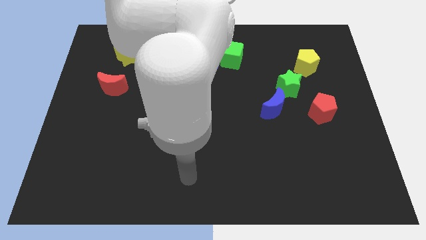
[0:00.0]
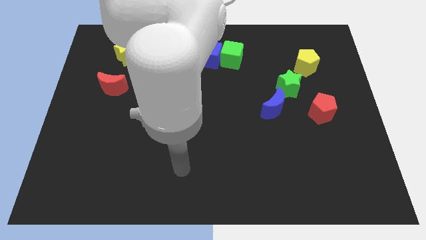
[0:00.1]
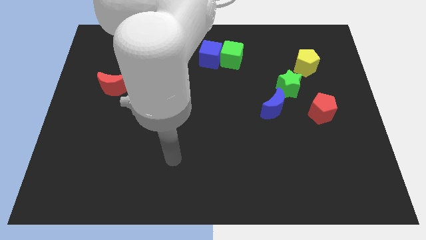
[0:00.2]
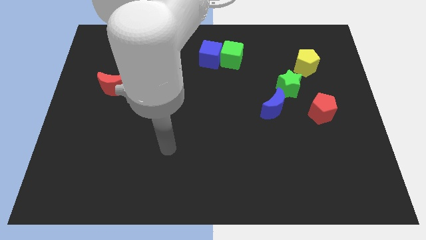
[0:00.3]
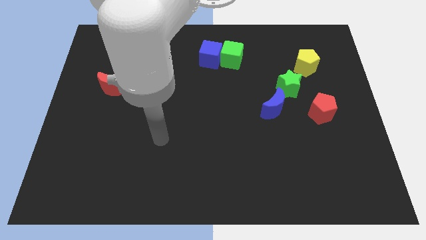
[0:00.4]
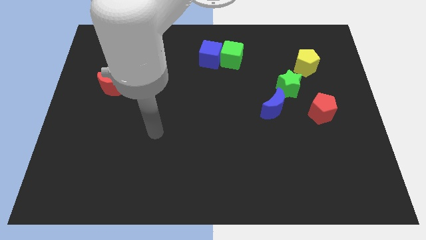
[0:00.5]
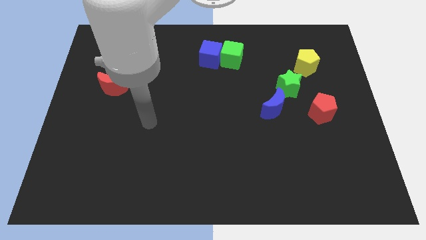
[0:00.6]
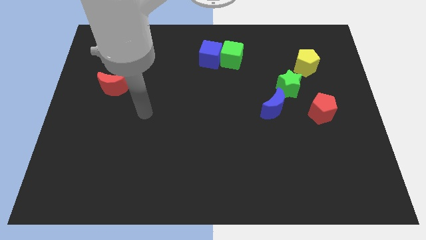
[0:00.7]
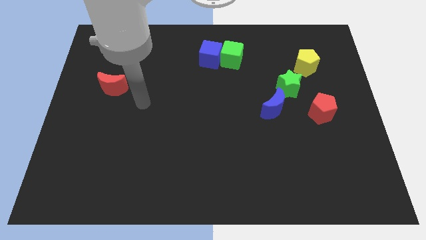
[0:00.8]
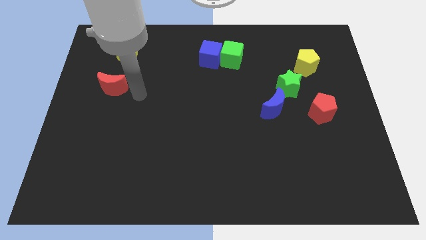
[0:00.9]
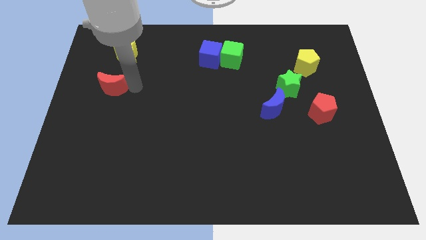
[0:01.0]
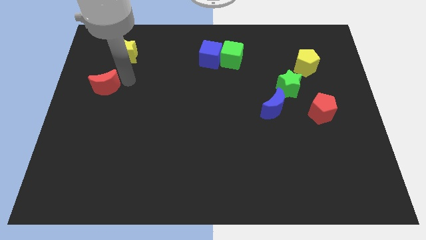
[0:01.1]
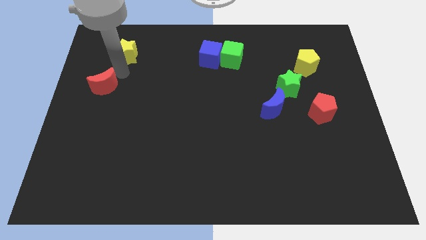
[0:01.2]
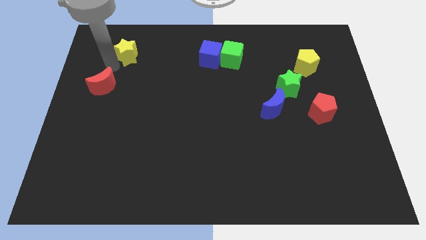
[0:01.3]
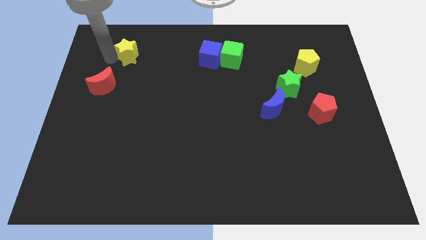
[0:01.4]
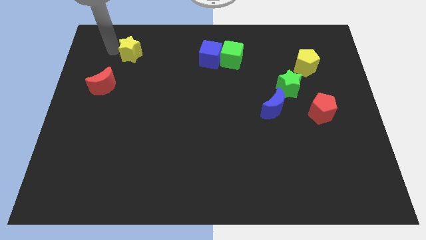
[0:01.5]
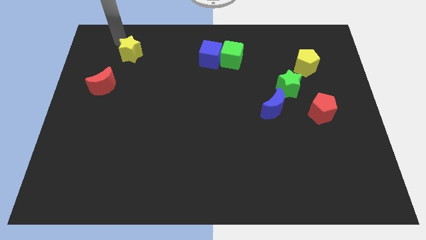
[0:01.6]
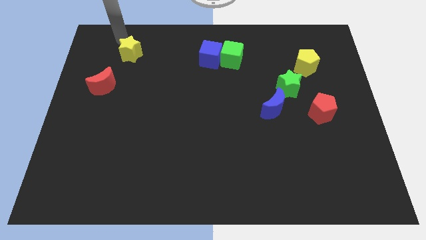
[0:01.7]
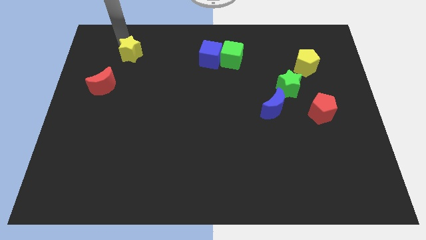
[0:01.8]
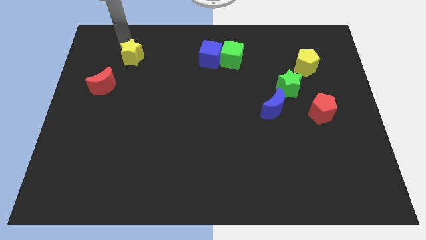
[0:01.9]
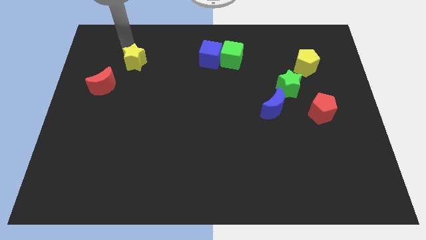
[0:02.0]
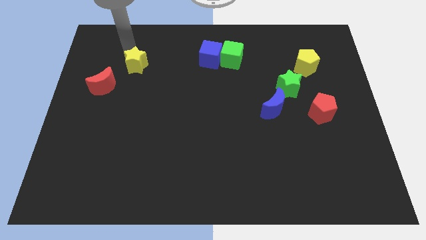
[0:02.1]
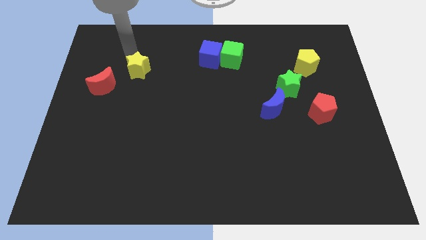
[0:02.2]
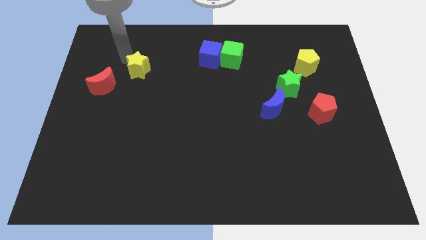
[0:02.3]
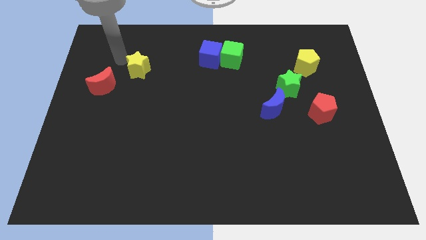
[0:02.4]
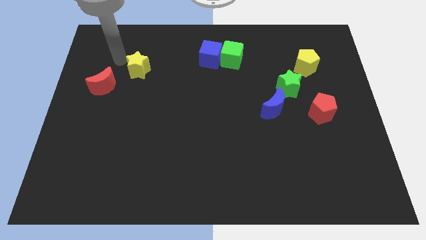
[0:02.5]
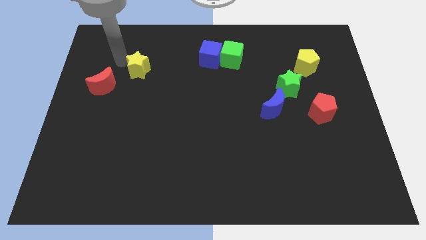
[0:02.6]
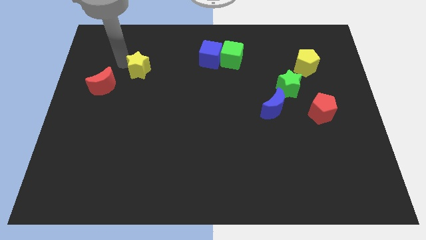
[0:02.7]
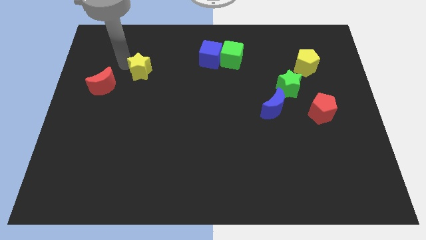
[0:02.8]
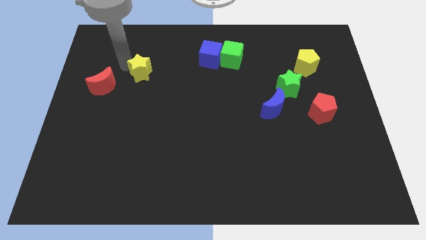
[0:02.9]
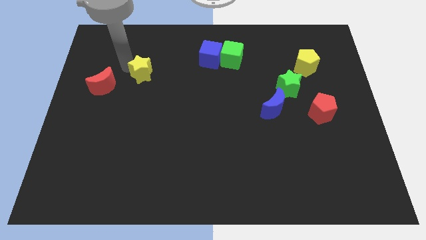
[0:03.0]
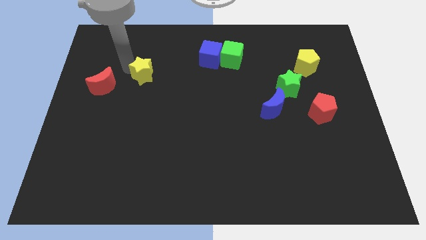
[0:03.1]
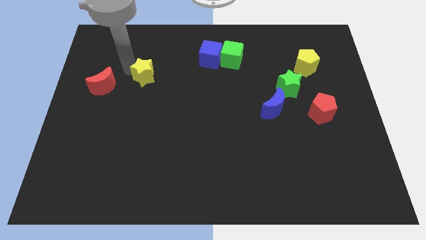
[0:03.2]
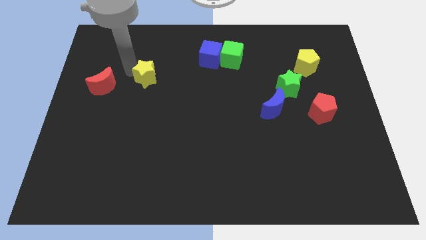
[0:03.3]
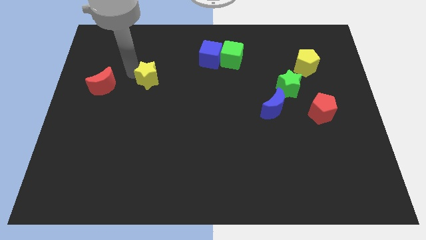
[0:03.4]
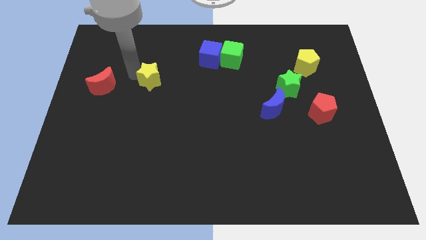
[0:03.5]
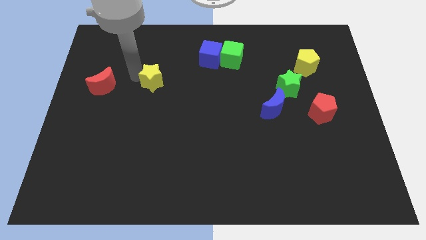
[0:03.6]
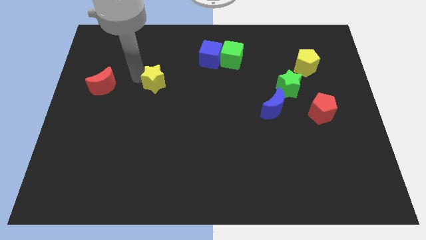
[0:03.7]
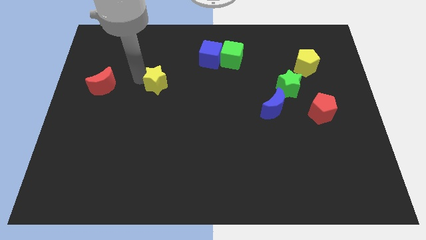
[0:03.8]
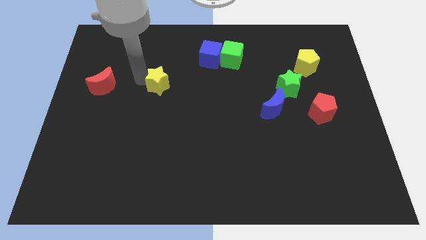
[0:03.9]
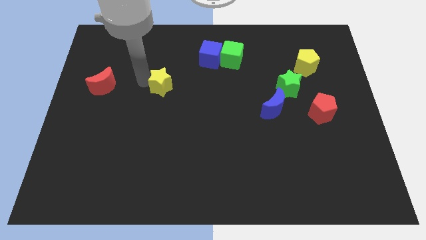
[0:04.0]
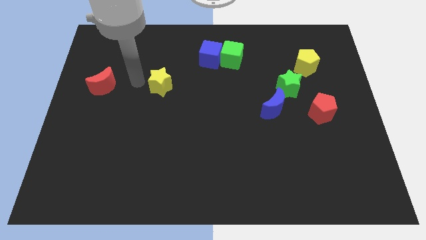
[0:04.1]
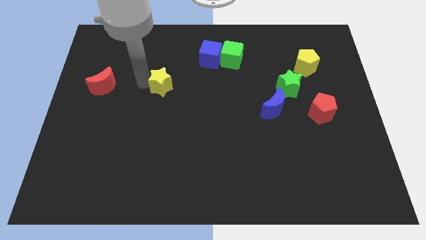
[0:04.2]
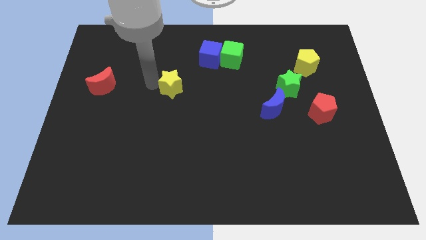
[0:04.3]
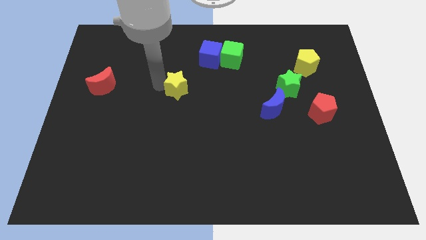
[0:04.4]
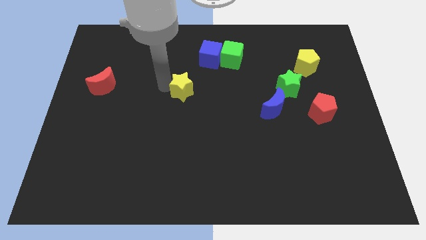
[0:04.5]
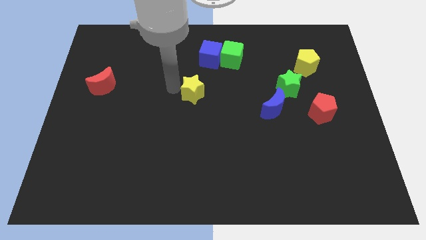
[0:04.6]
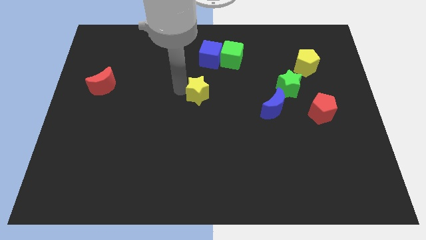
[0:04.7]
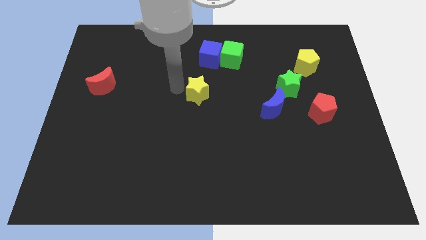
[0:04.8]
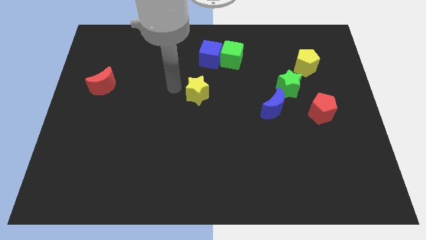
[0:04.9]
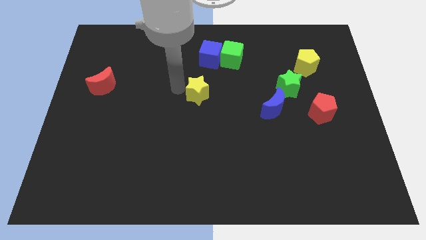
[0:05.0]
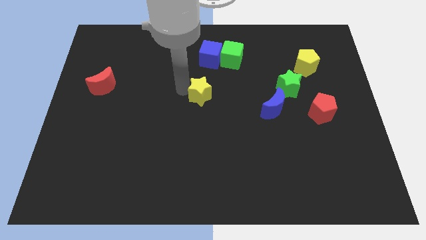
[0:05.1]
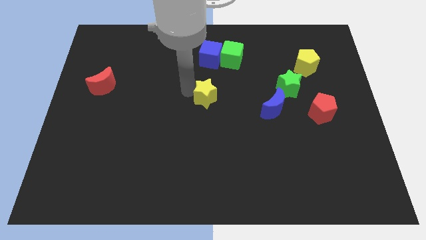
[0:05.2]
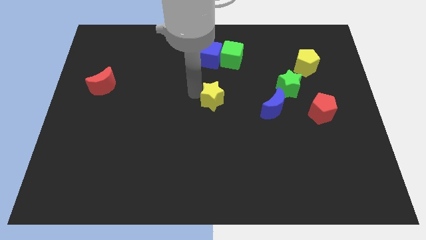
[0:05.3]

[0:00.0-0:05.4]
push the yellow star left of the blue moon

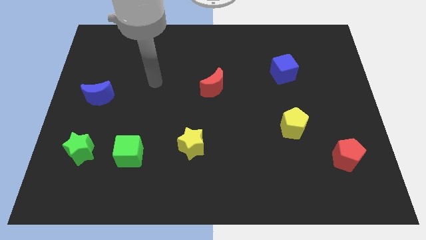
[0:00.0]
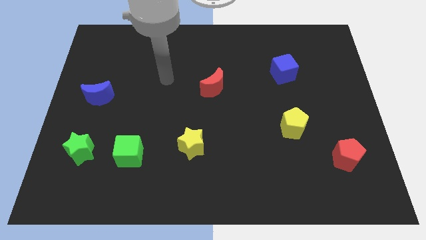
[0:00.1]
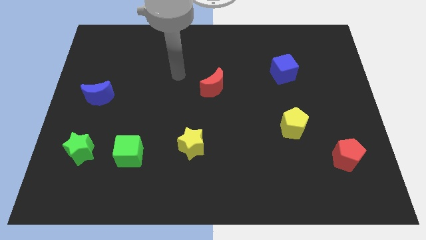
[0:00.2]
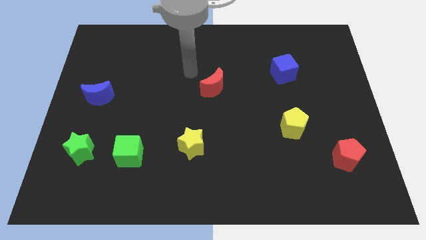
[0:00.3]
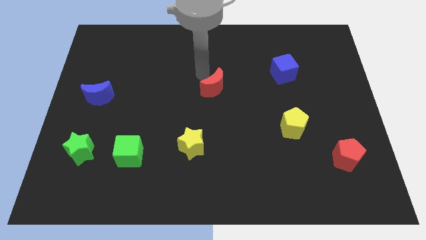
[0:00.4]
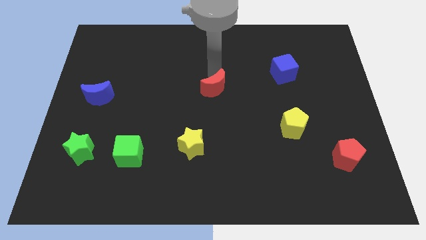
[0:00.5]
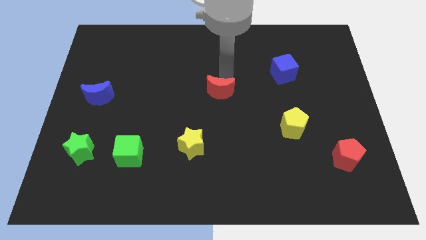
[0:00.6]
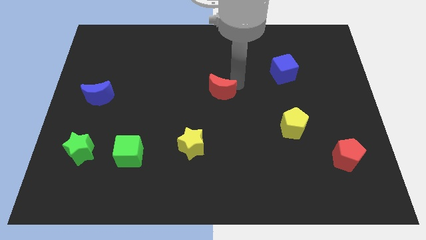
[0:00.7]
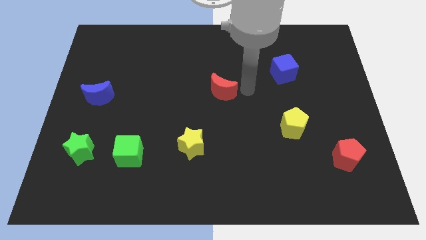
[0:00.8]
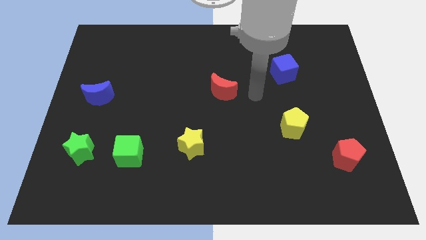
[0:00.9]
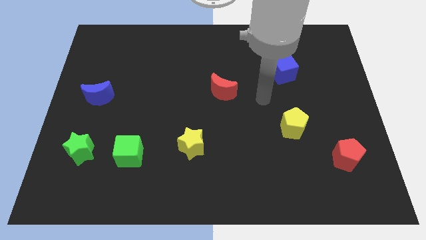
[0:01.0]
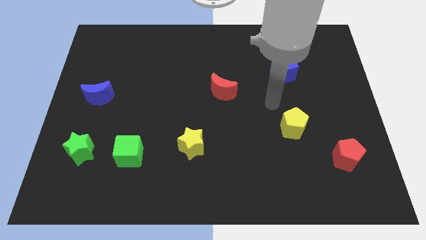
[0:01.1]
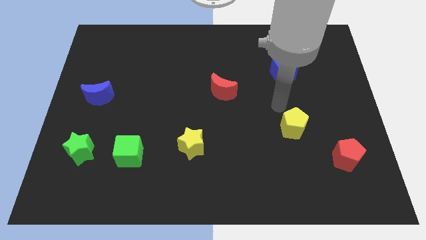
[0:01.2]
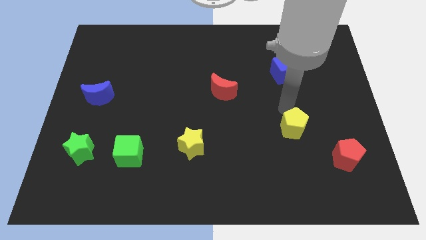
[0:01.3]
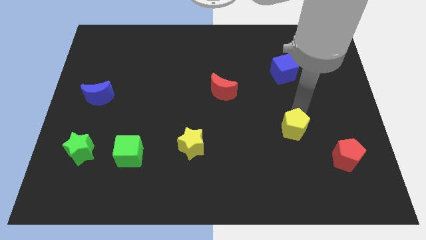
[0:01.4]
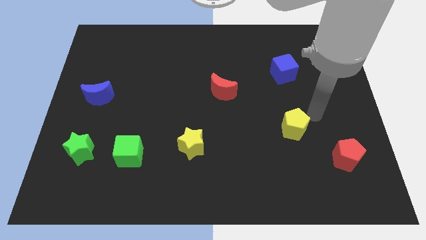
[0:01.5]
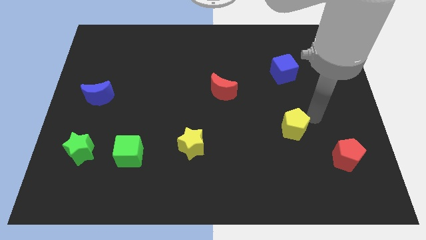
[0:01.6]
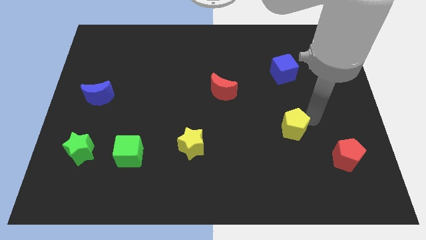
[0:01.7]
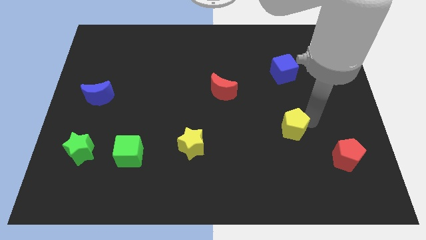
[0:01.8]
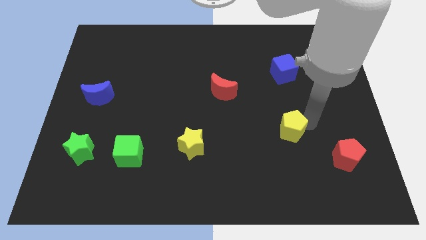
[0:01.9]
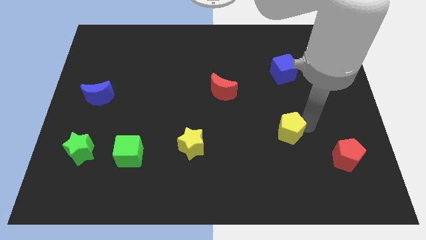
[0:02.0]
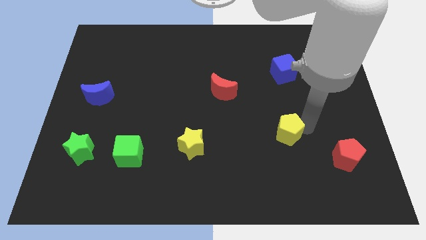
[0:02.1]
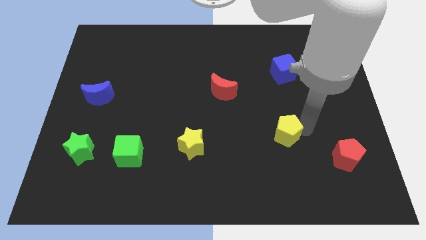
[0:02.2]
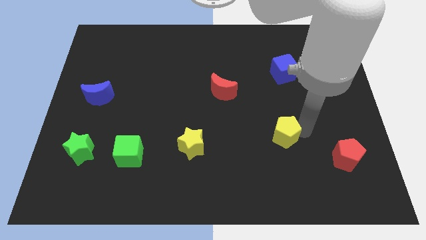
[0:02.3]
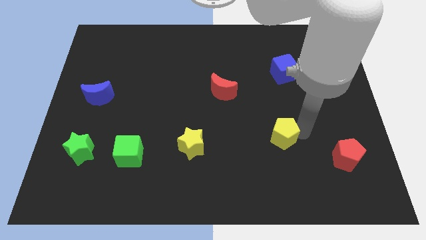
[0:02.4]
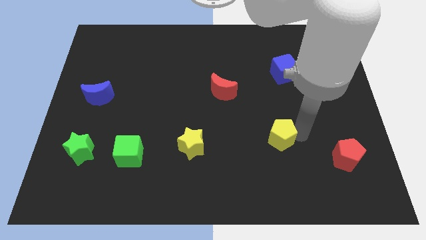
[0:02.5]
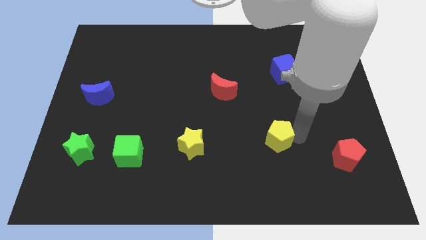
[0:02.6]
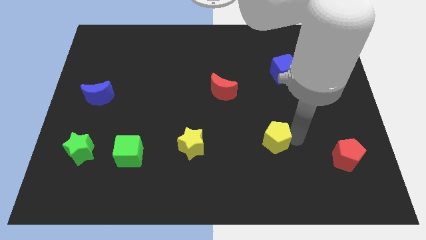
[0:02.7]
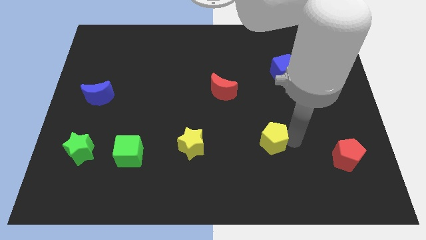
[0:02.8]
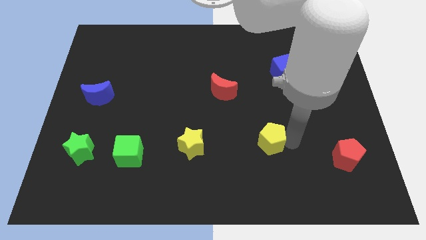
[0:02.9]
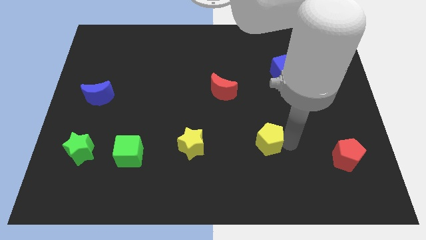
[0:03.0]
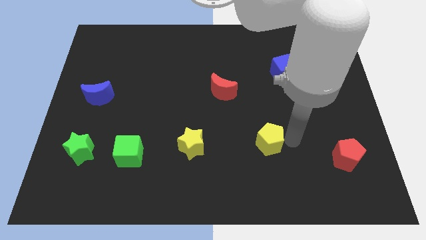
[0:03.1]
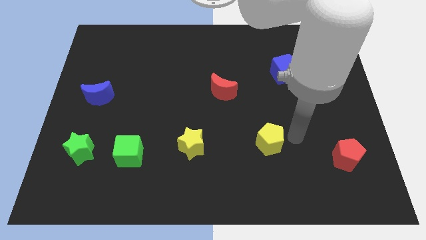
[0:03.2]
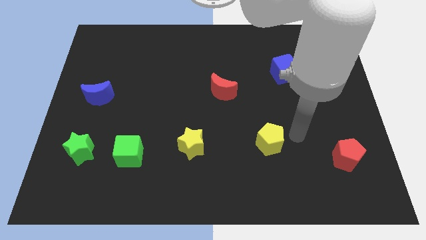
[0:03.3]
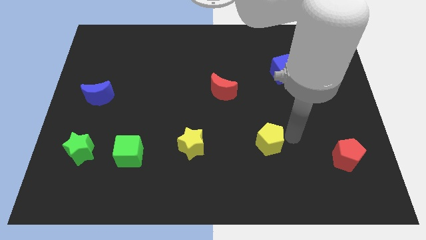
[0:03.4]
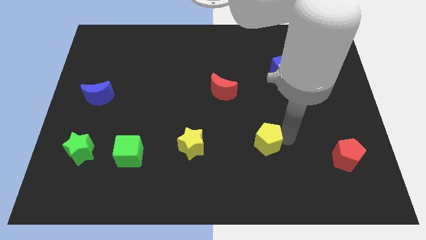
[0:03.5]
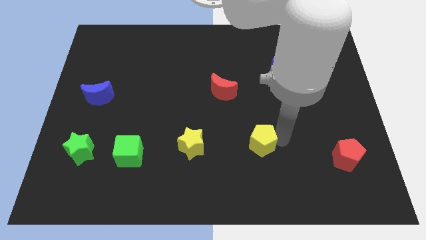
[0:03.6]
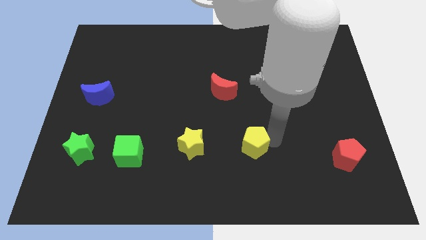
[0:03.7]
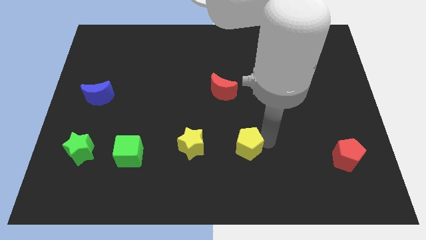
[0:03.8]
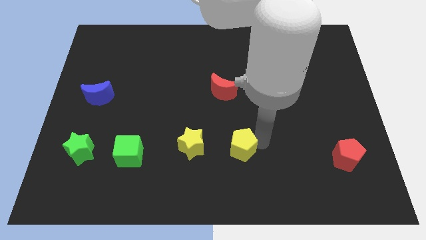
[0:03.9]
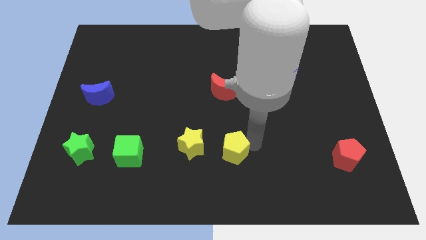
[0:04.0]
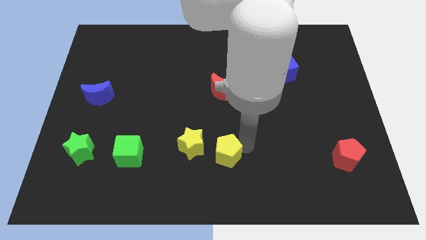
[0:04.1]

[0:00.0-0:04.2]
push the yellow pentagon to the bottom right of the yellow star
